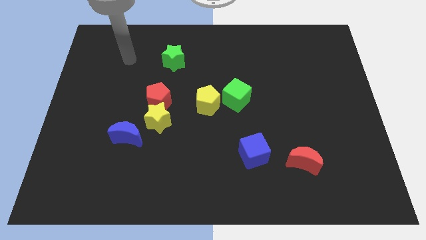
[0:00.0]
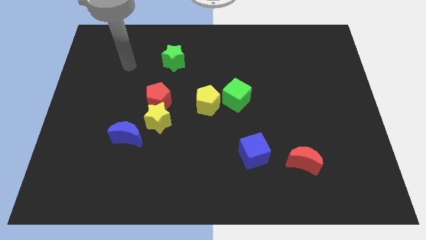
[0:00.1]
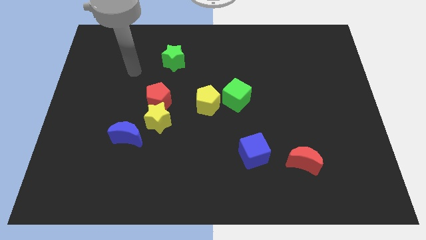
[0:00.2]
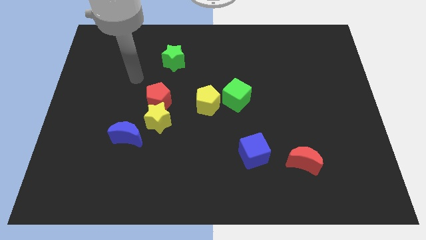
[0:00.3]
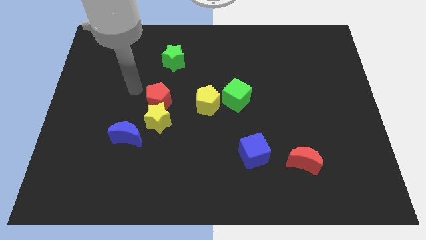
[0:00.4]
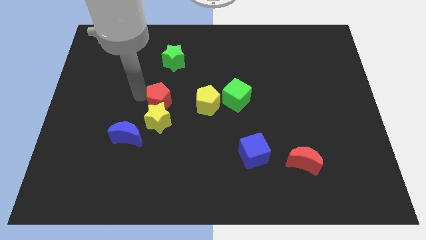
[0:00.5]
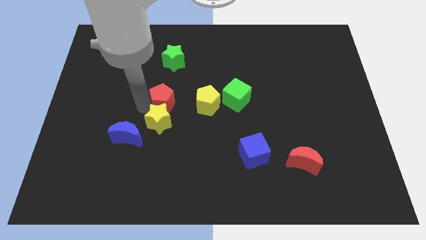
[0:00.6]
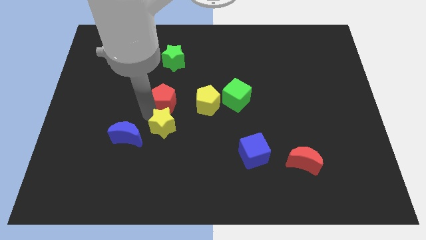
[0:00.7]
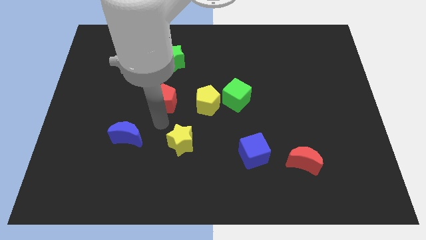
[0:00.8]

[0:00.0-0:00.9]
pull the red pentagon apart from the yellow star

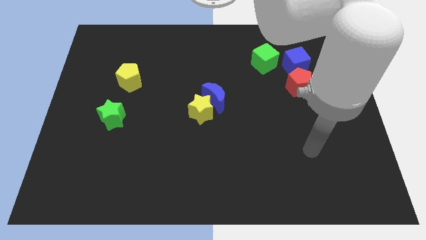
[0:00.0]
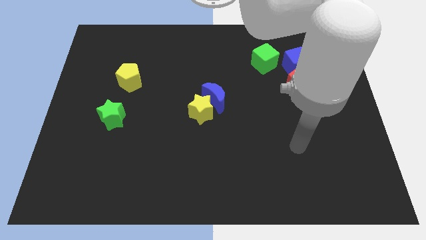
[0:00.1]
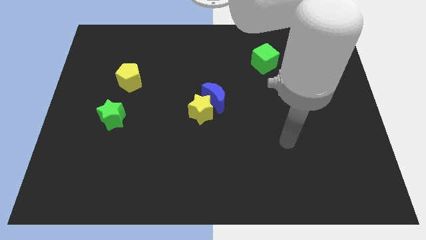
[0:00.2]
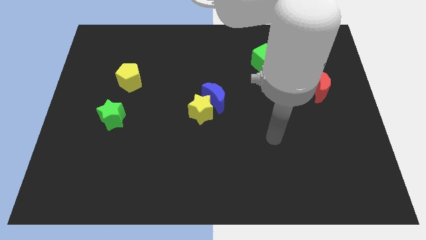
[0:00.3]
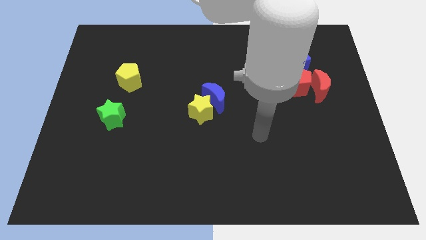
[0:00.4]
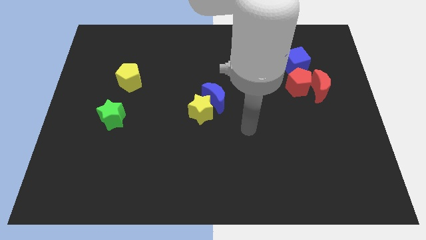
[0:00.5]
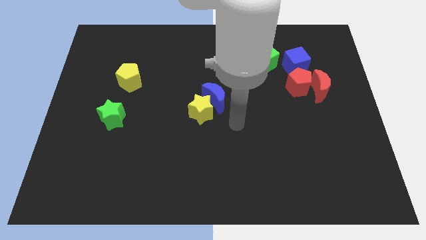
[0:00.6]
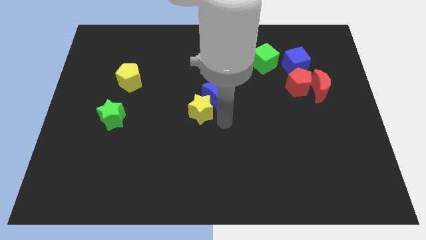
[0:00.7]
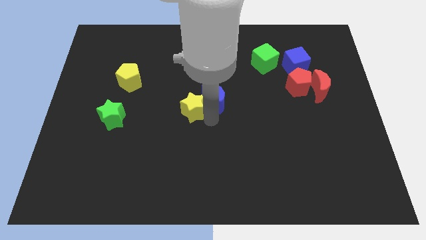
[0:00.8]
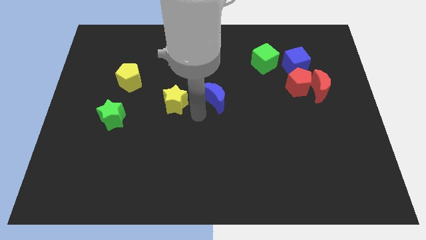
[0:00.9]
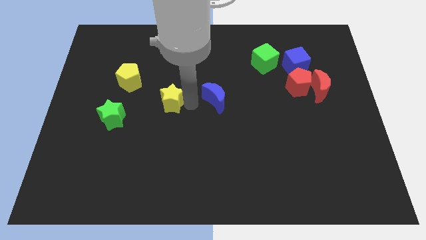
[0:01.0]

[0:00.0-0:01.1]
move the blue moon away from the yellow star

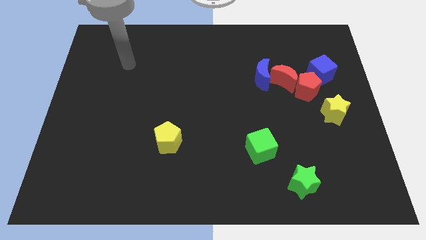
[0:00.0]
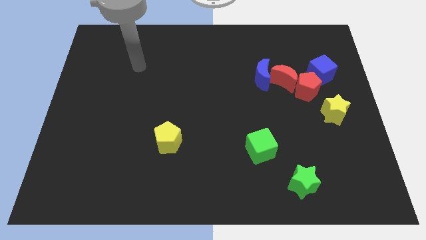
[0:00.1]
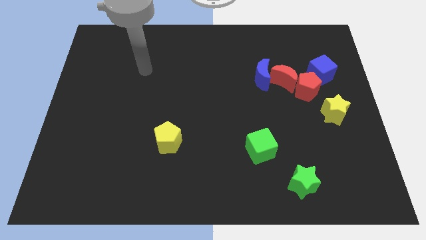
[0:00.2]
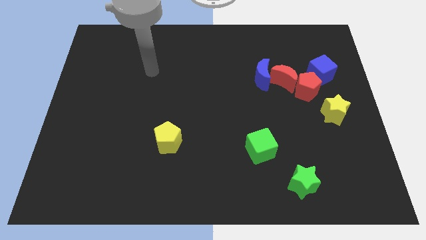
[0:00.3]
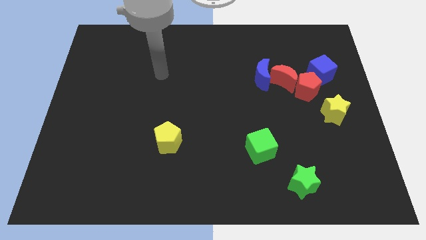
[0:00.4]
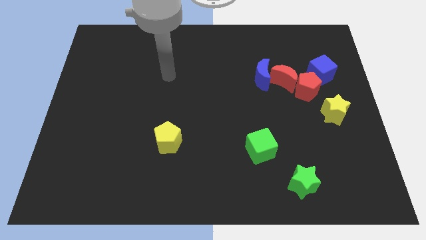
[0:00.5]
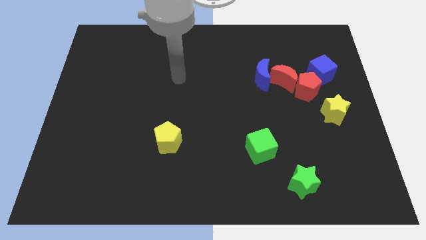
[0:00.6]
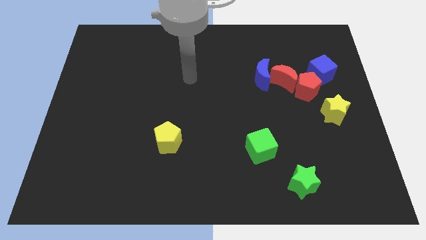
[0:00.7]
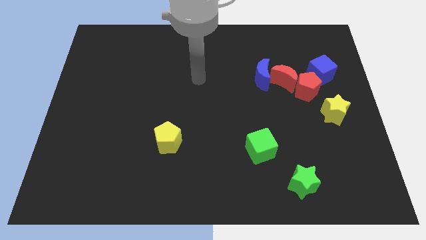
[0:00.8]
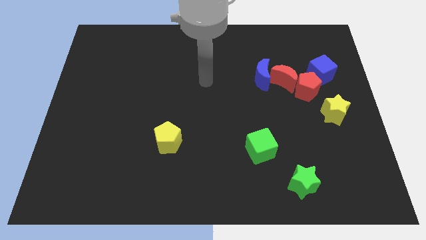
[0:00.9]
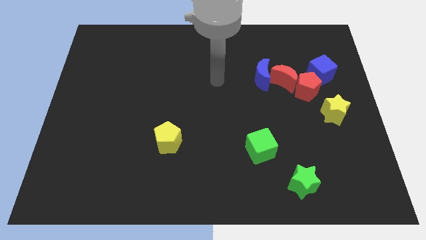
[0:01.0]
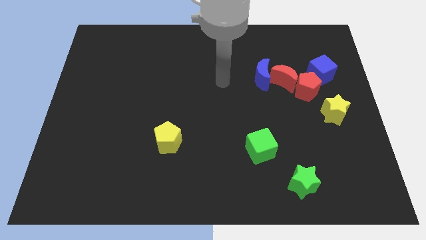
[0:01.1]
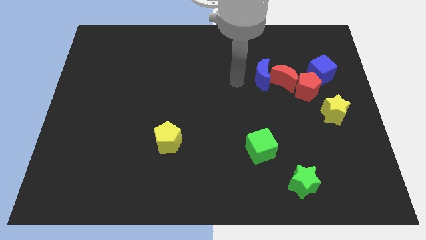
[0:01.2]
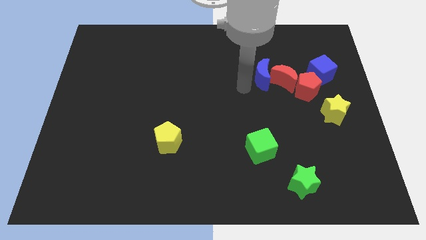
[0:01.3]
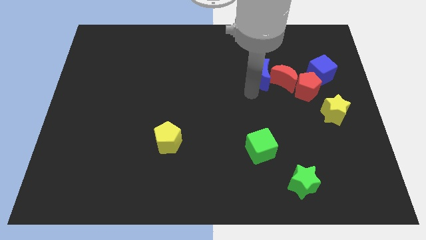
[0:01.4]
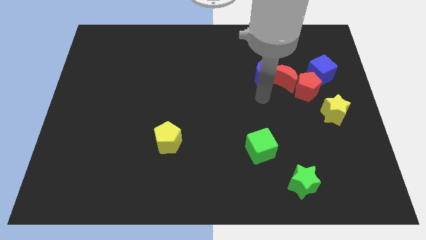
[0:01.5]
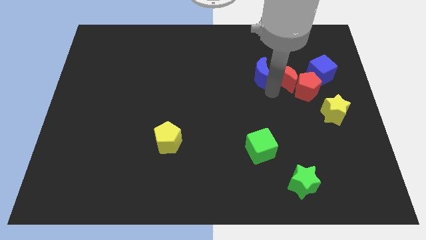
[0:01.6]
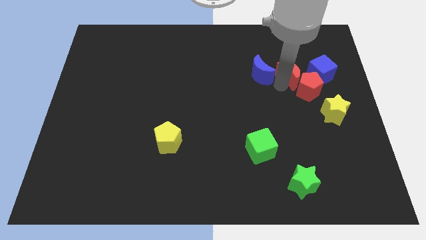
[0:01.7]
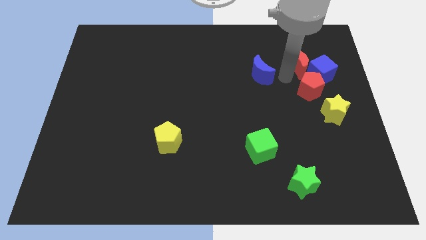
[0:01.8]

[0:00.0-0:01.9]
separate the blue moon from the red moon

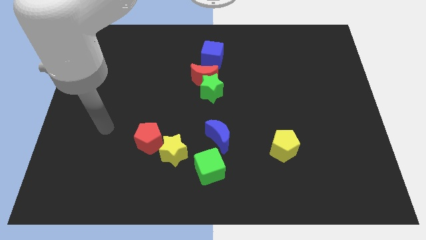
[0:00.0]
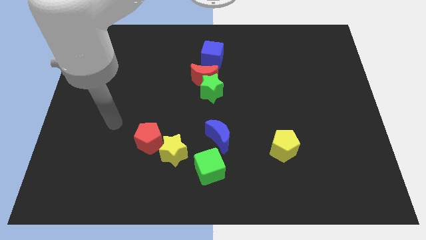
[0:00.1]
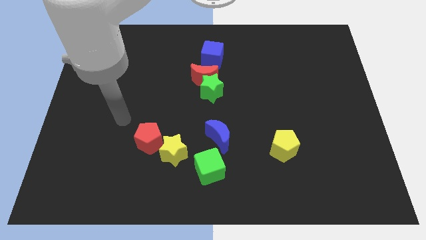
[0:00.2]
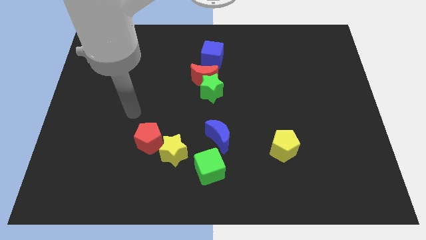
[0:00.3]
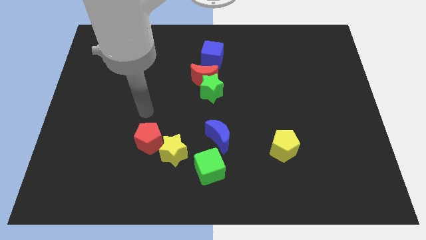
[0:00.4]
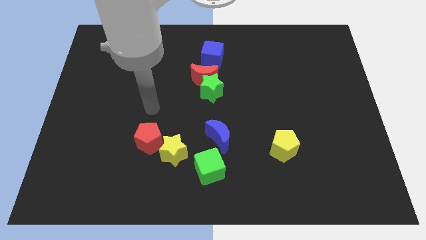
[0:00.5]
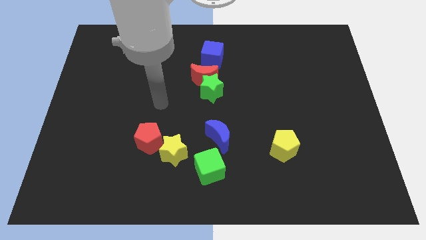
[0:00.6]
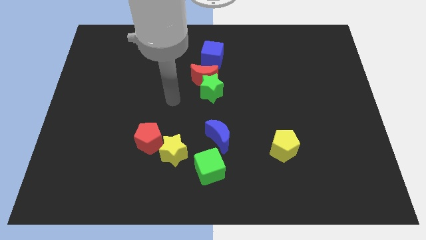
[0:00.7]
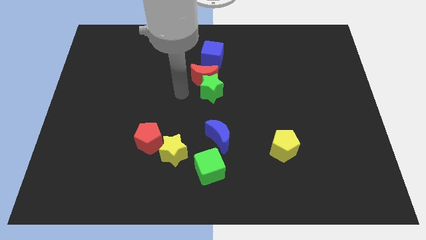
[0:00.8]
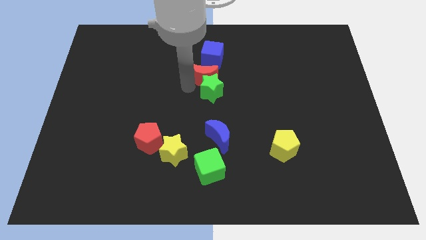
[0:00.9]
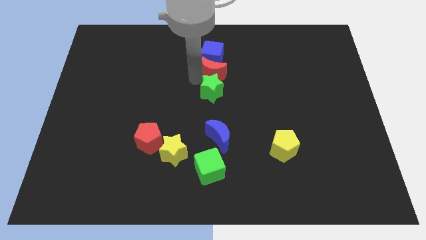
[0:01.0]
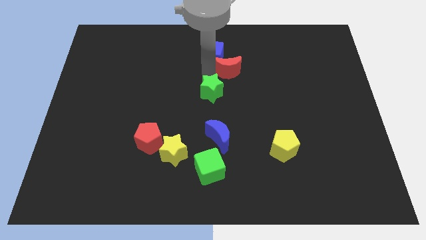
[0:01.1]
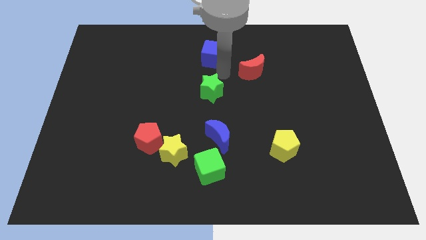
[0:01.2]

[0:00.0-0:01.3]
separate the green star from the red moon

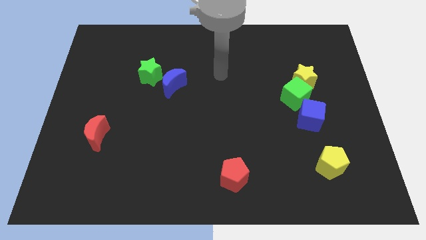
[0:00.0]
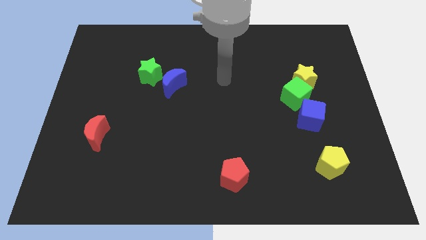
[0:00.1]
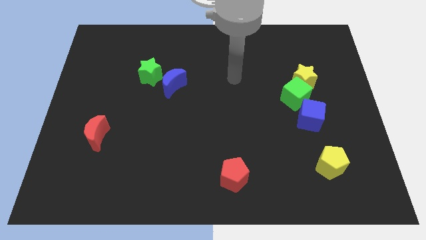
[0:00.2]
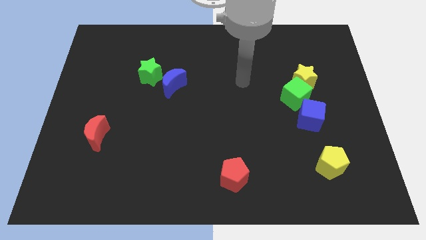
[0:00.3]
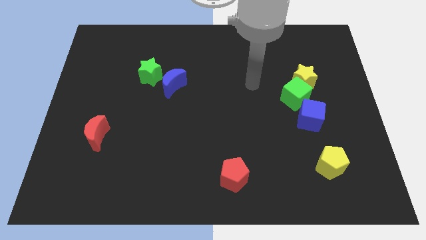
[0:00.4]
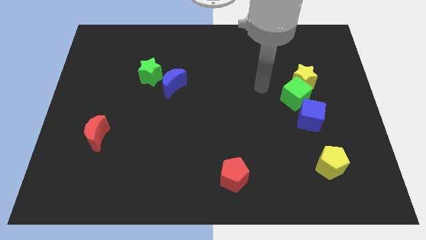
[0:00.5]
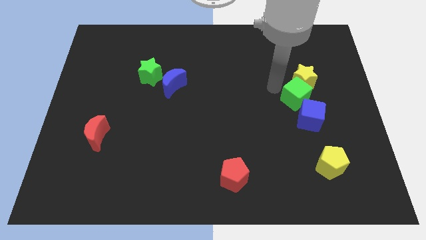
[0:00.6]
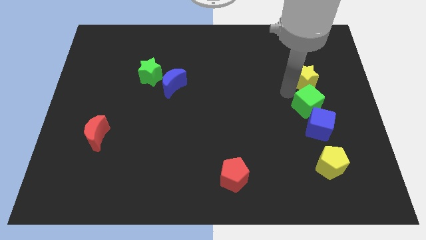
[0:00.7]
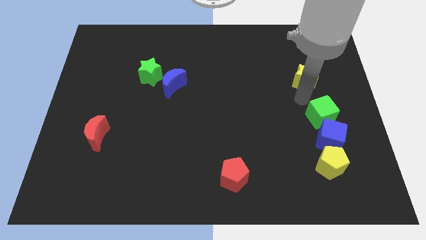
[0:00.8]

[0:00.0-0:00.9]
pull the yellow star apart from the green cube

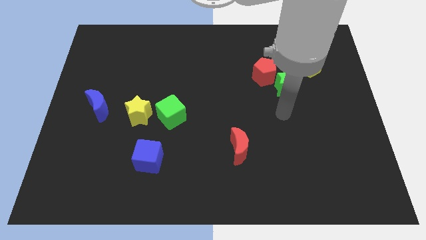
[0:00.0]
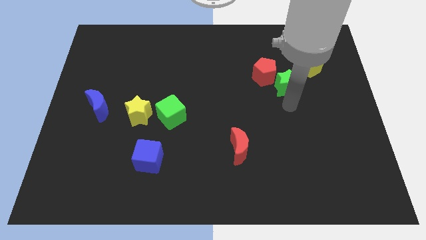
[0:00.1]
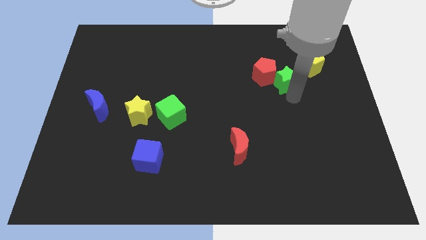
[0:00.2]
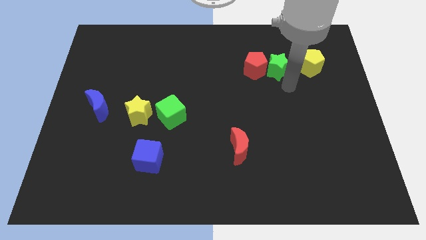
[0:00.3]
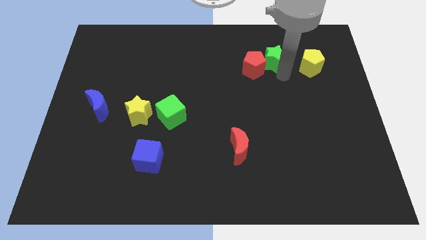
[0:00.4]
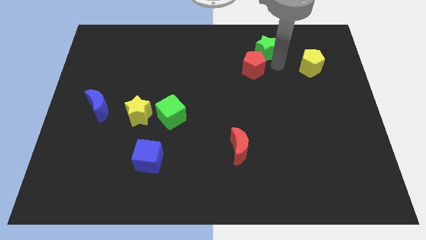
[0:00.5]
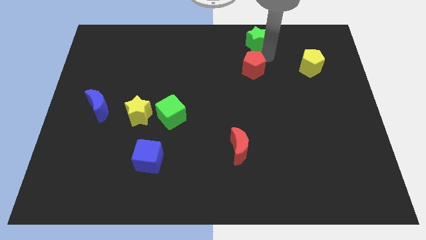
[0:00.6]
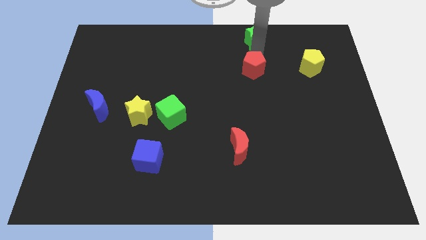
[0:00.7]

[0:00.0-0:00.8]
pull the red pentagon apart from the green star

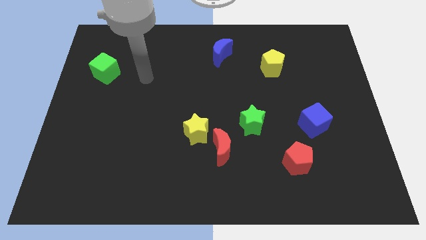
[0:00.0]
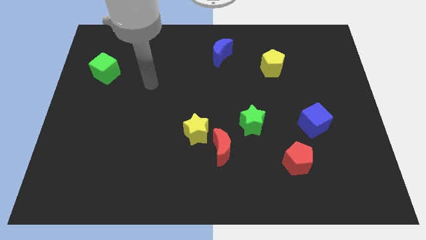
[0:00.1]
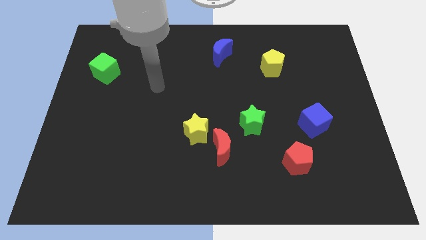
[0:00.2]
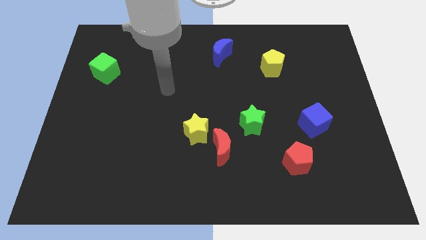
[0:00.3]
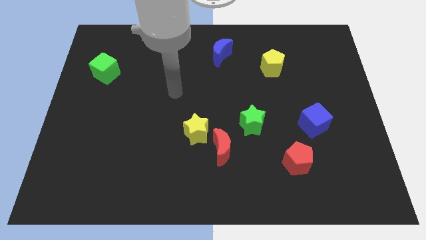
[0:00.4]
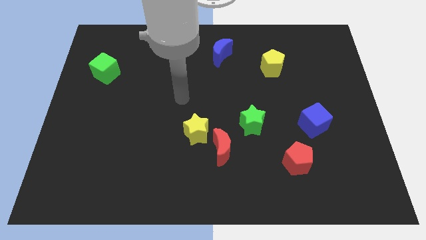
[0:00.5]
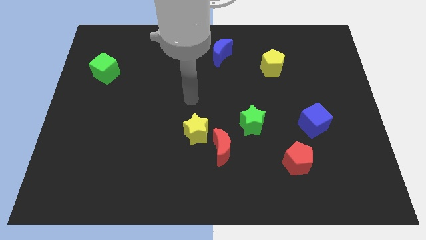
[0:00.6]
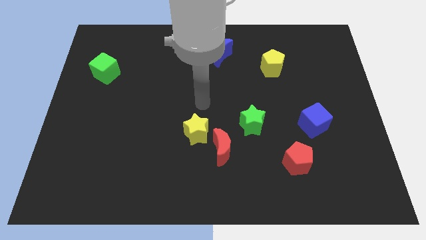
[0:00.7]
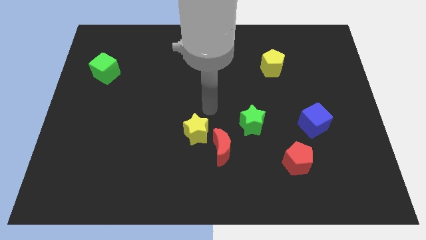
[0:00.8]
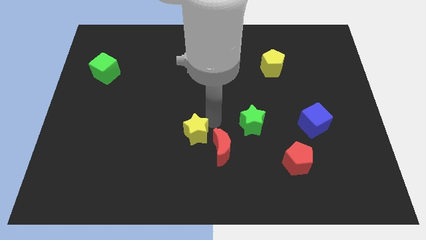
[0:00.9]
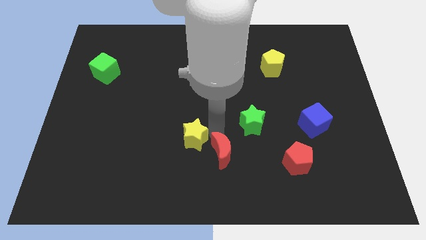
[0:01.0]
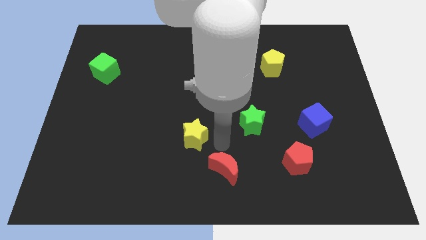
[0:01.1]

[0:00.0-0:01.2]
move the yellow star away from the red moon

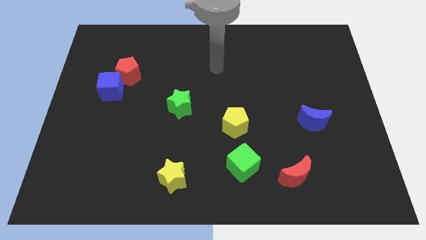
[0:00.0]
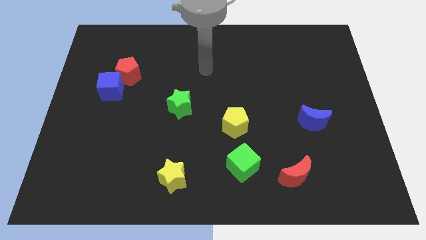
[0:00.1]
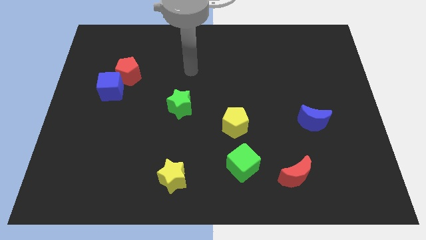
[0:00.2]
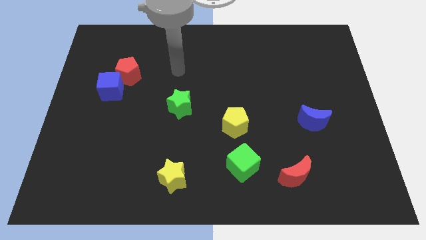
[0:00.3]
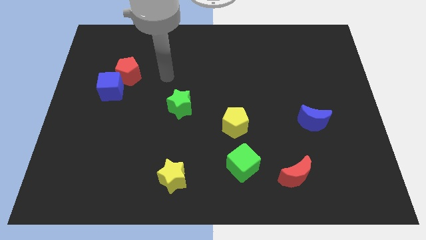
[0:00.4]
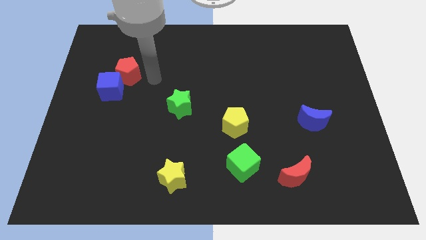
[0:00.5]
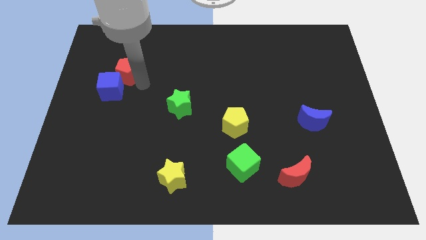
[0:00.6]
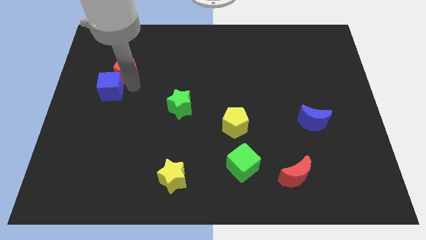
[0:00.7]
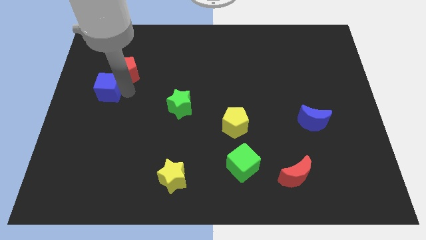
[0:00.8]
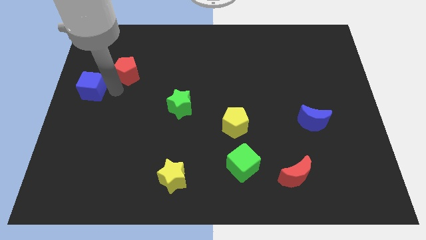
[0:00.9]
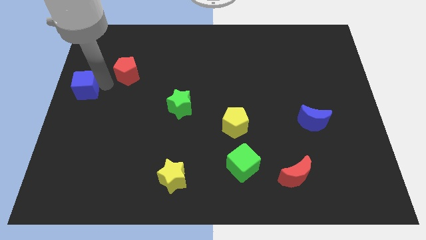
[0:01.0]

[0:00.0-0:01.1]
pull the red pentagon apart from the blue cube
